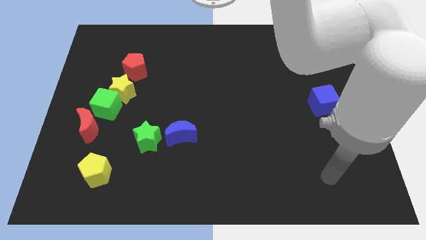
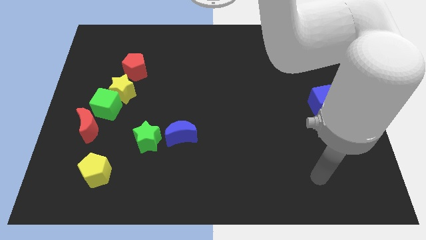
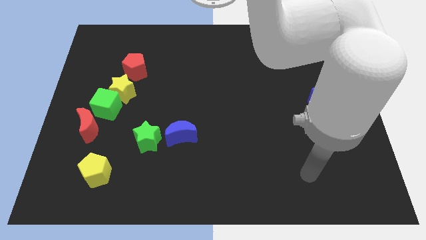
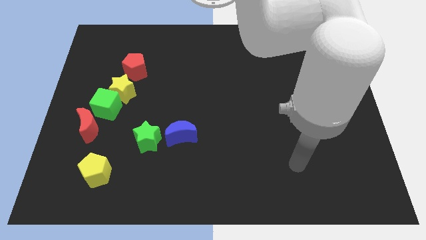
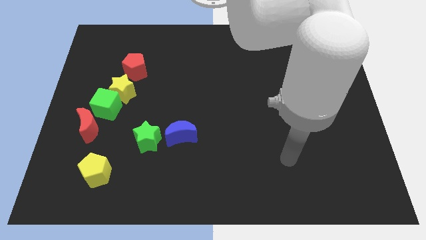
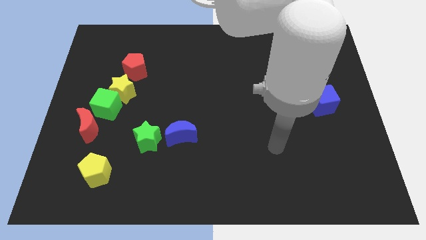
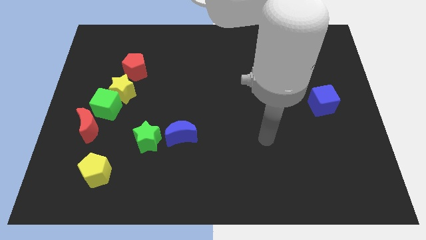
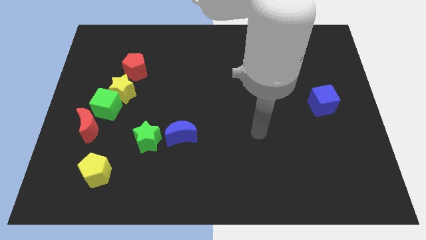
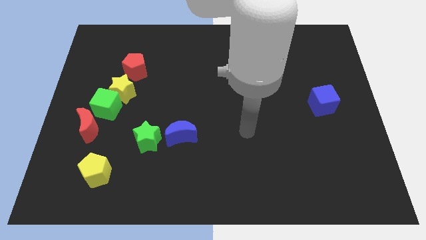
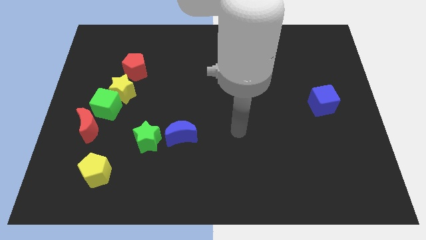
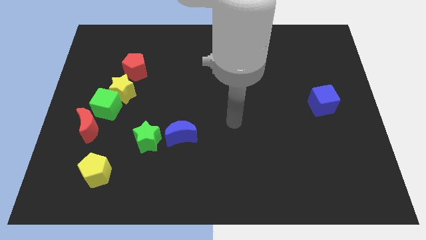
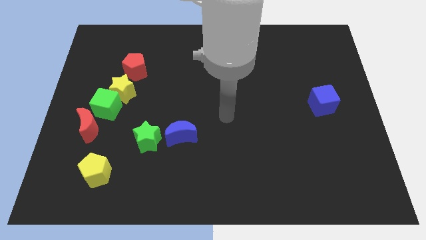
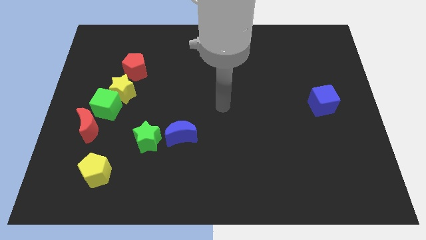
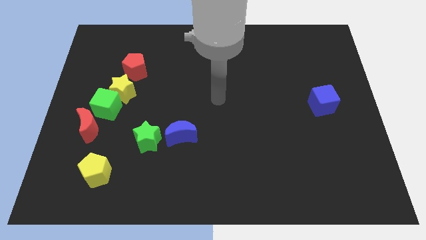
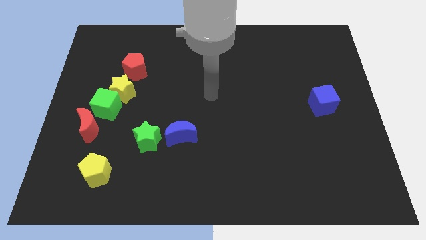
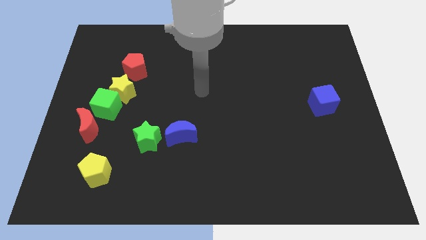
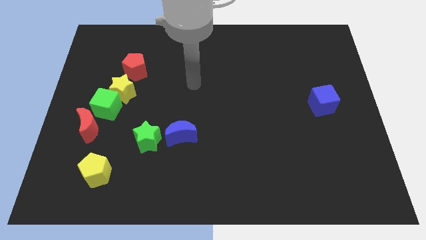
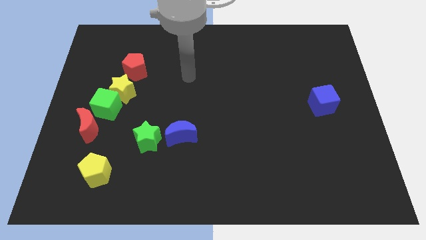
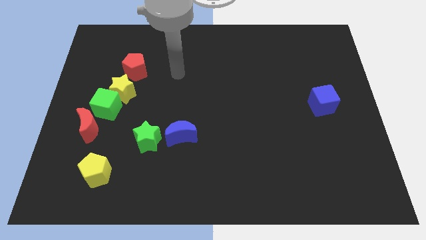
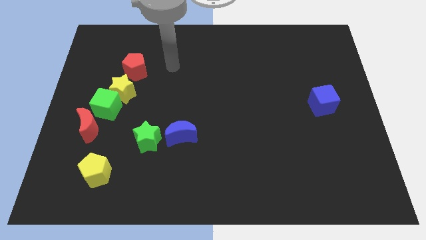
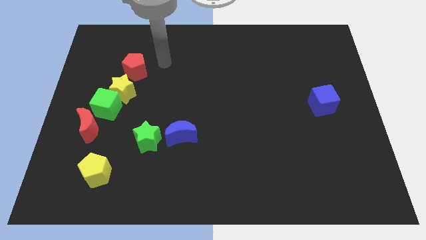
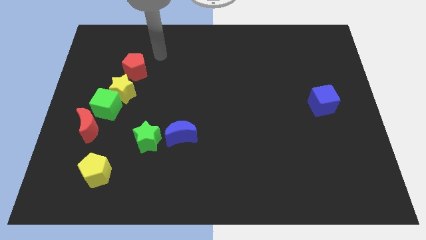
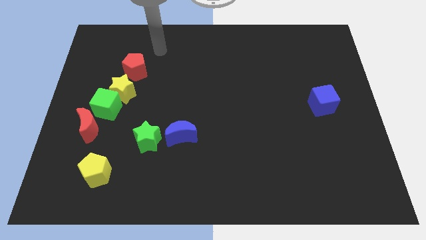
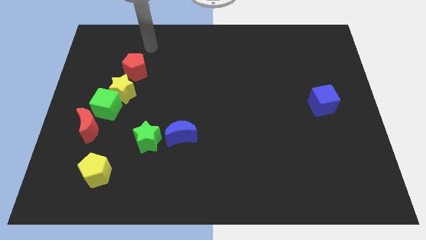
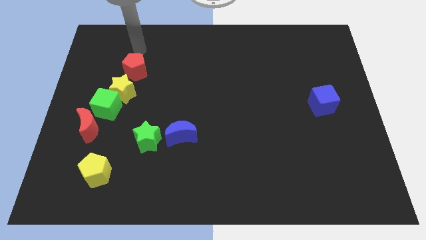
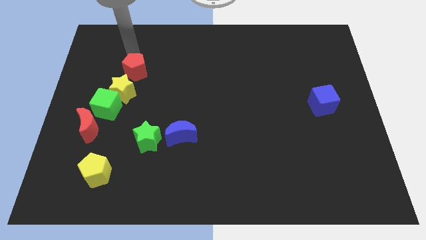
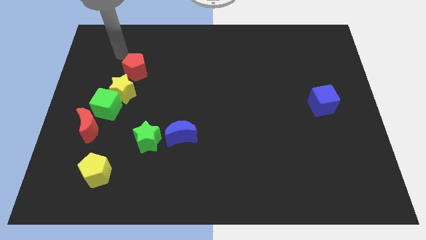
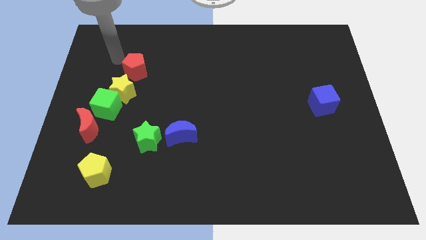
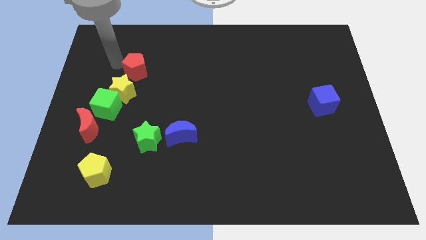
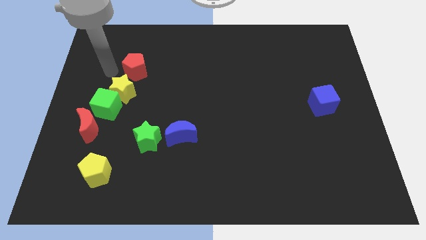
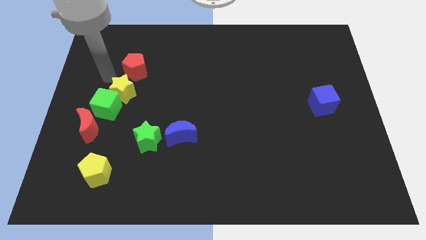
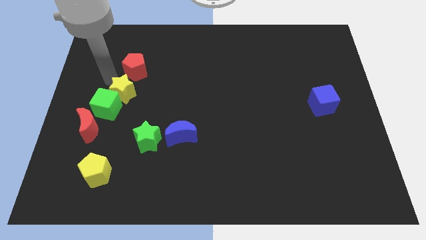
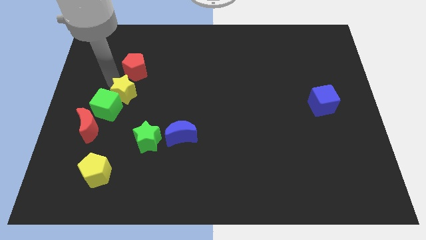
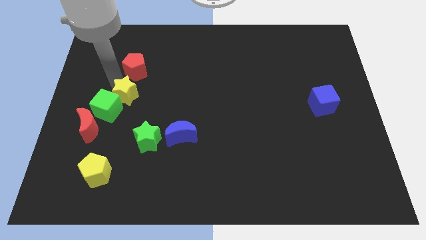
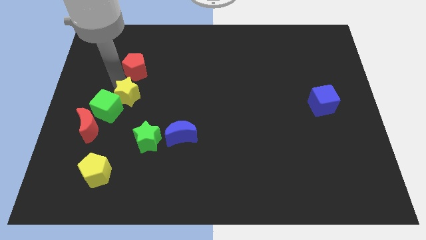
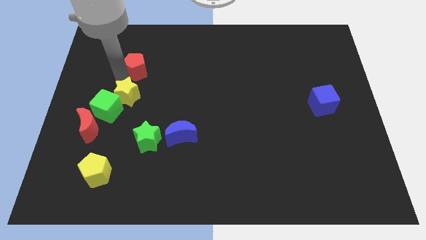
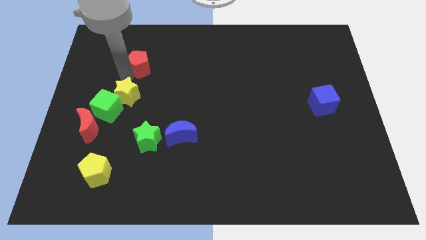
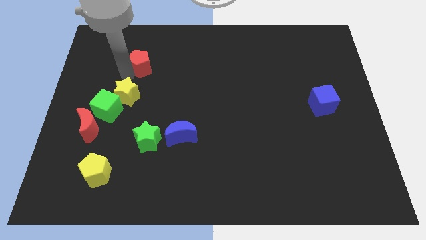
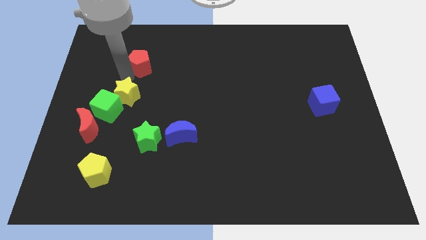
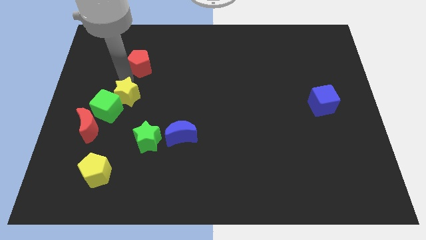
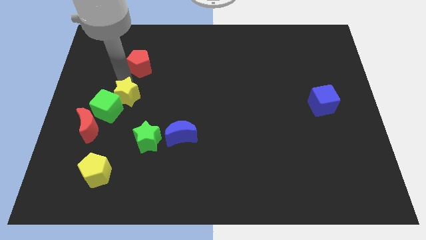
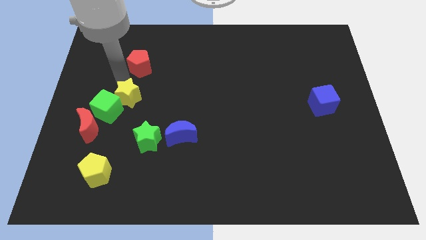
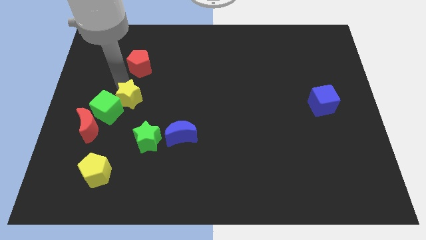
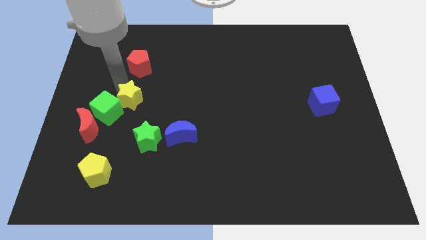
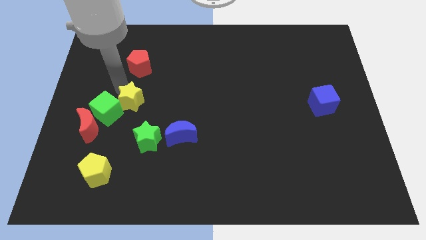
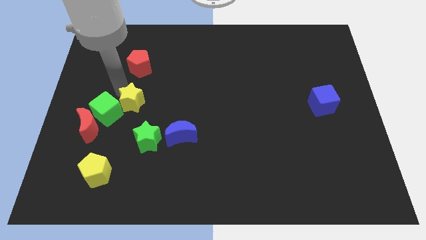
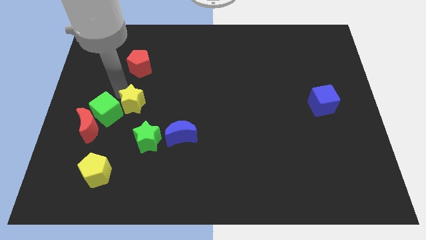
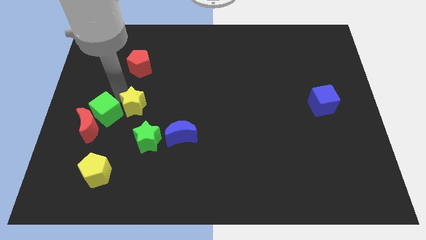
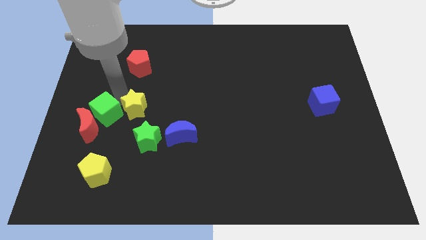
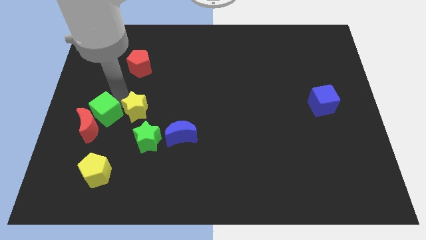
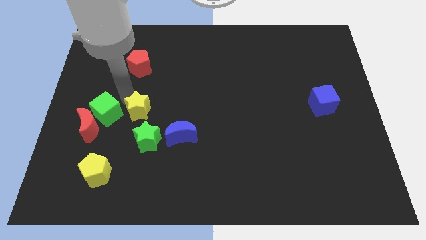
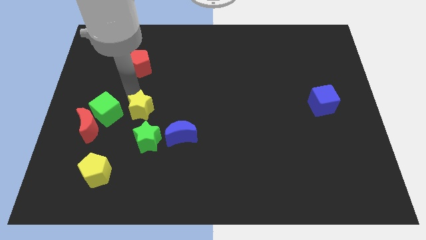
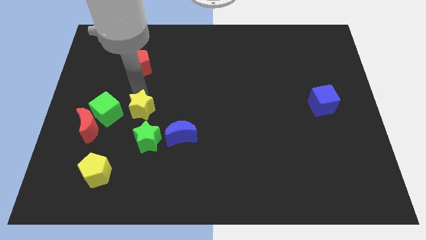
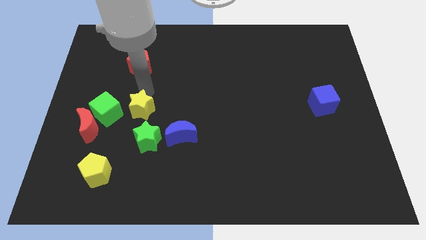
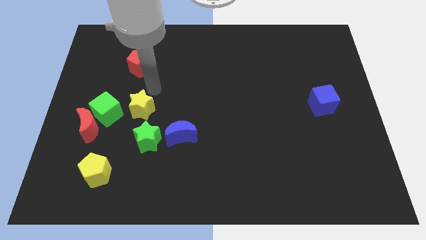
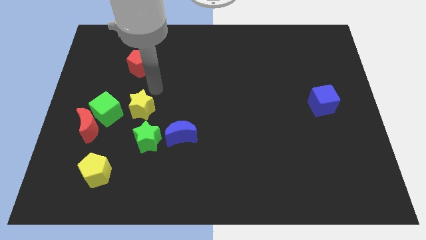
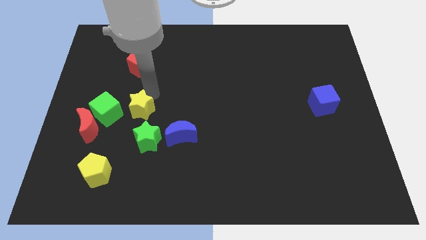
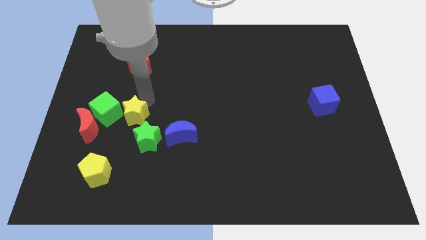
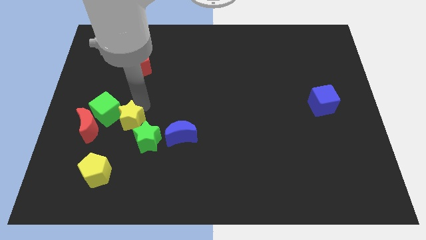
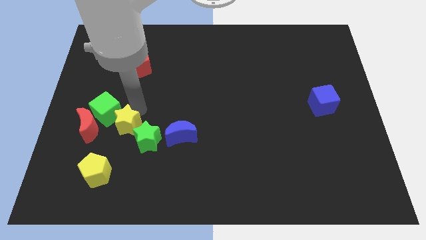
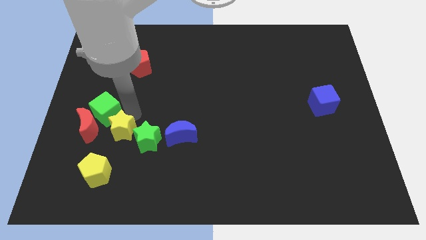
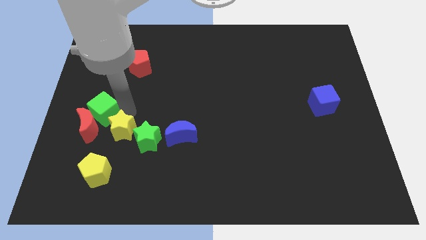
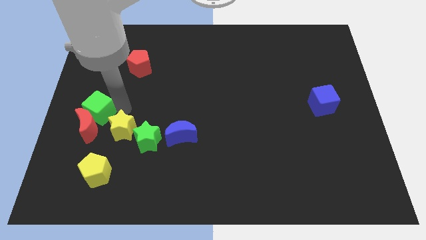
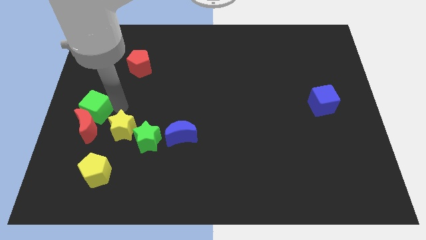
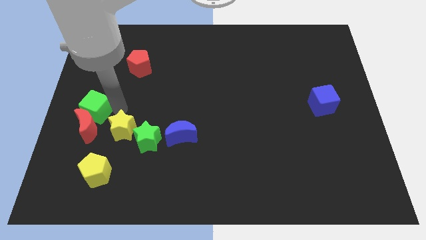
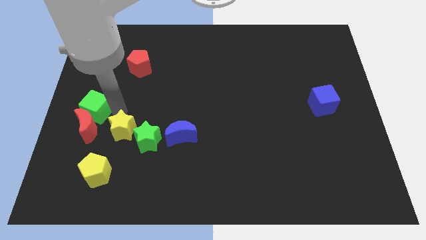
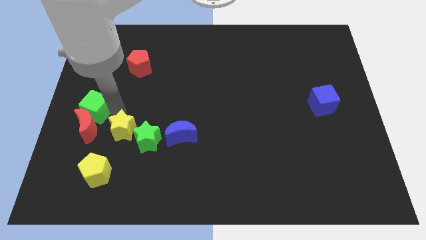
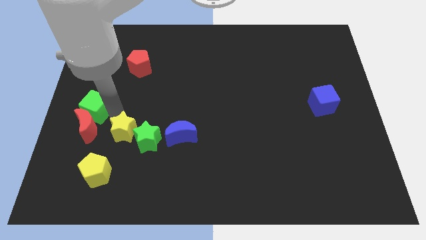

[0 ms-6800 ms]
slide the yellow star to the top right side of the yellow pentagon

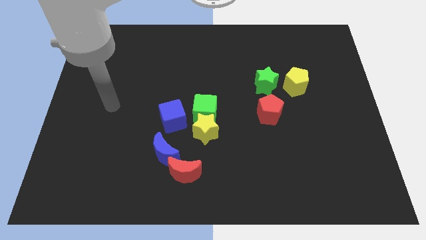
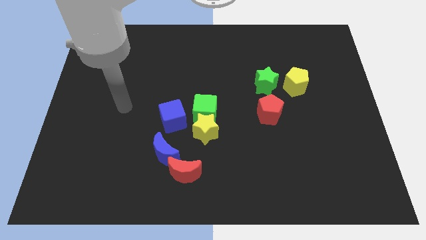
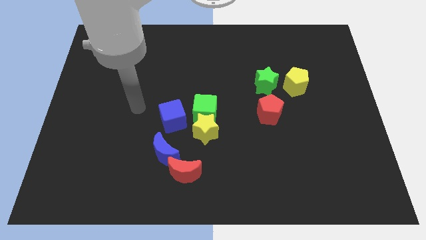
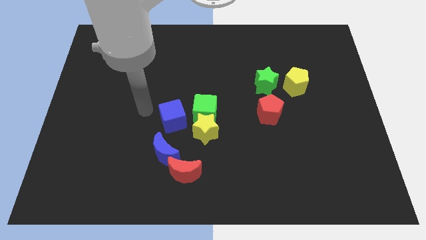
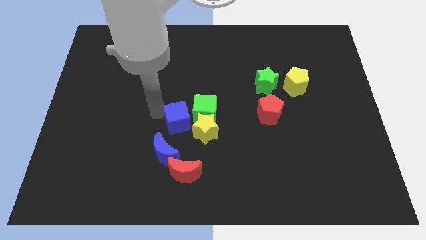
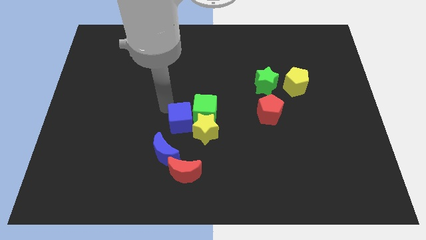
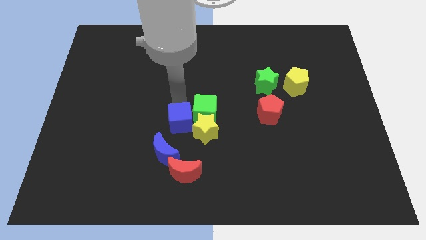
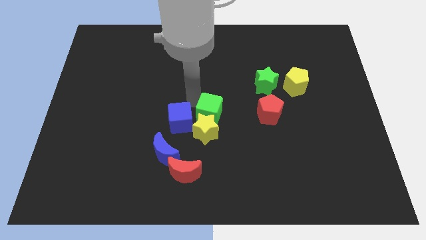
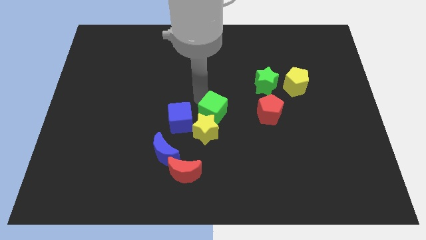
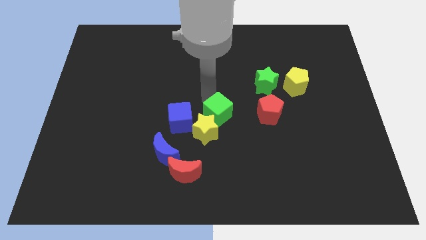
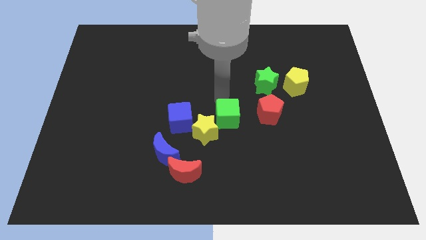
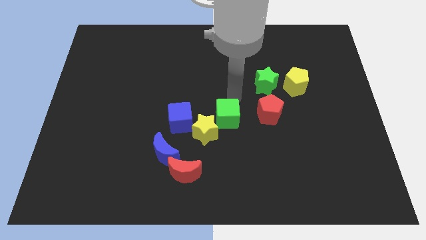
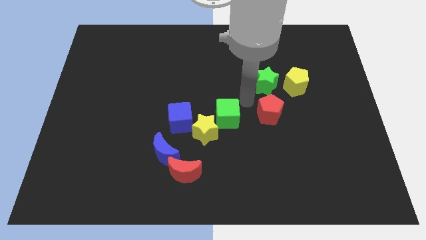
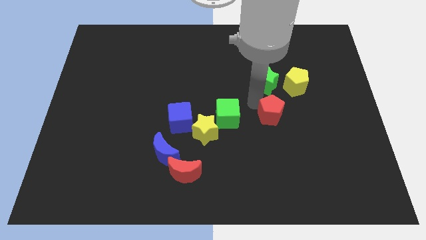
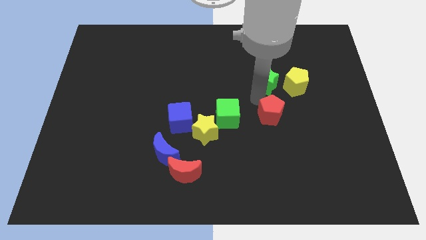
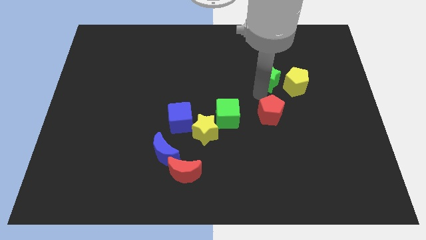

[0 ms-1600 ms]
push the green star to the top left of the yellow pentagon
